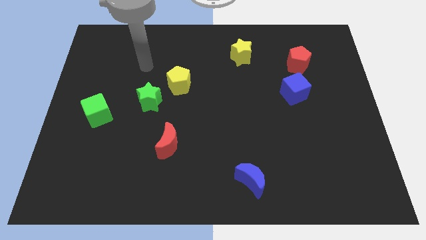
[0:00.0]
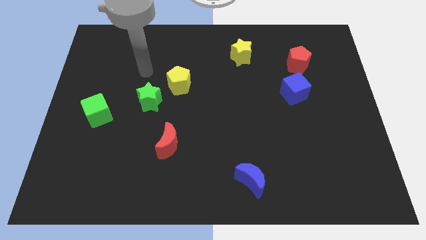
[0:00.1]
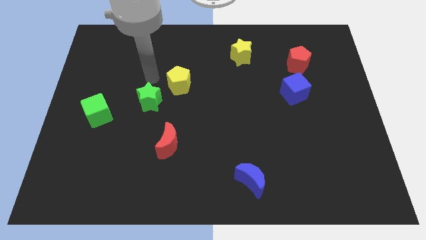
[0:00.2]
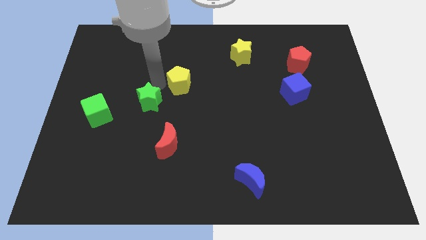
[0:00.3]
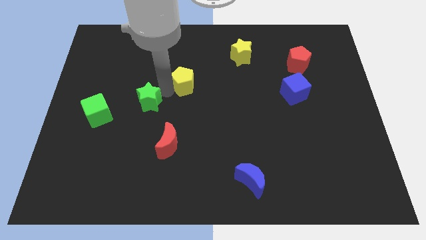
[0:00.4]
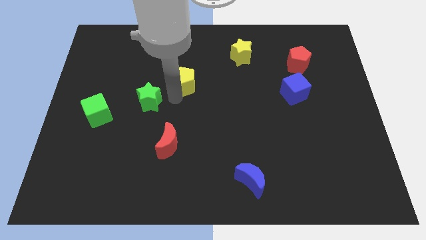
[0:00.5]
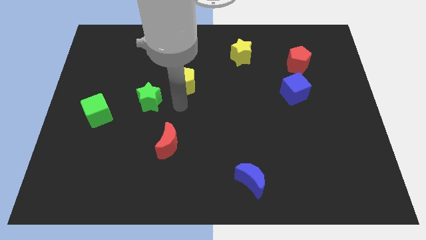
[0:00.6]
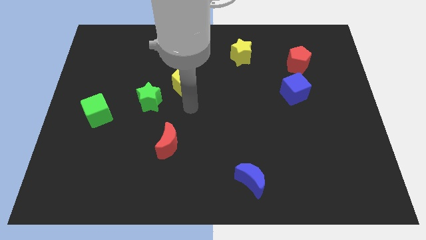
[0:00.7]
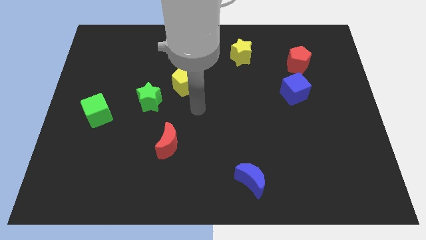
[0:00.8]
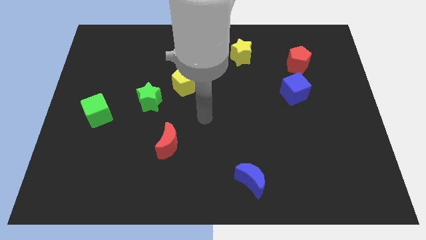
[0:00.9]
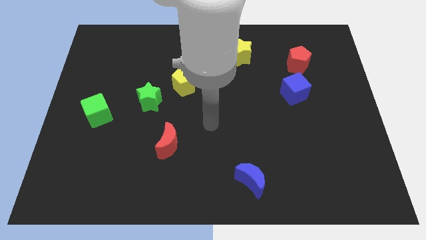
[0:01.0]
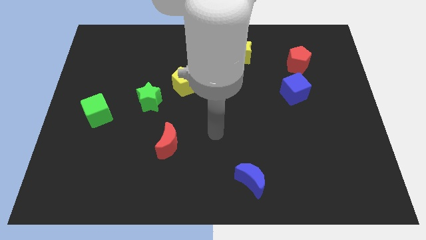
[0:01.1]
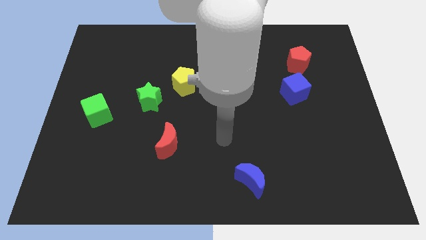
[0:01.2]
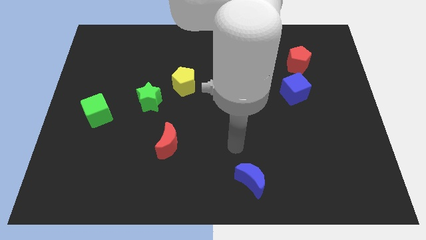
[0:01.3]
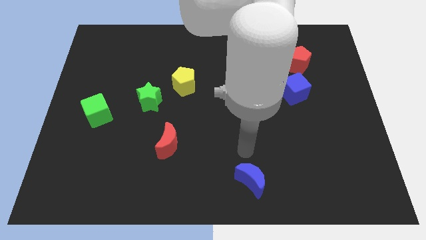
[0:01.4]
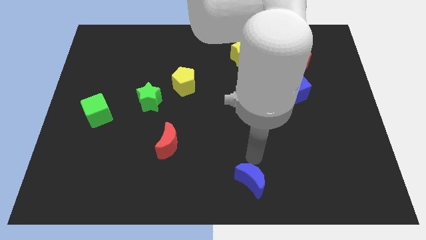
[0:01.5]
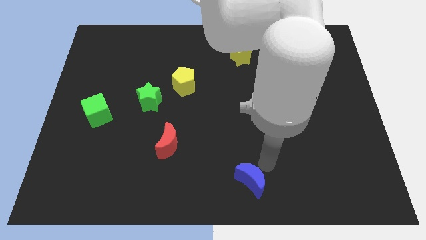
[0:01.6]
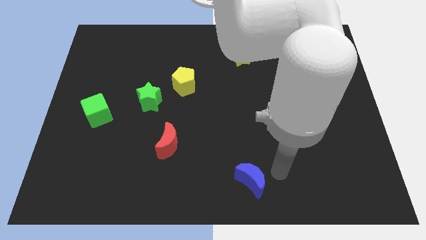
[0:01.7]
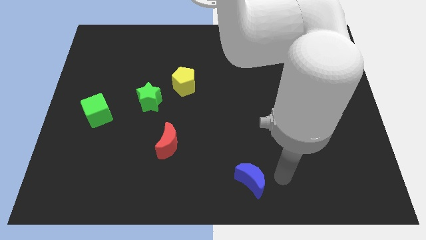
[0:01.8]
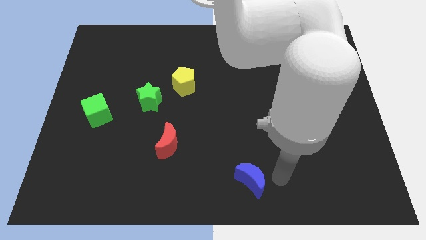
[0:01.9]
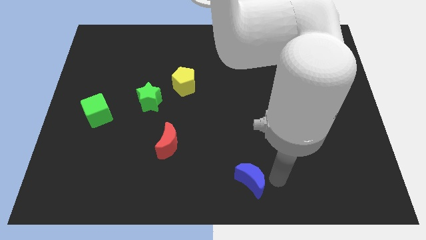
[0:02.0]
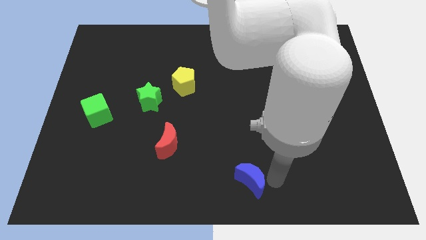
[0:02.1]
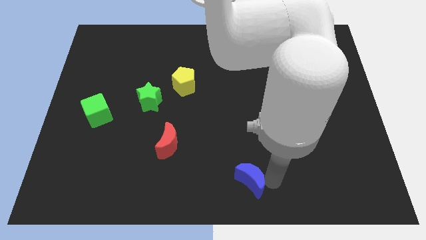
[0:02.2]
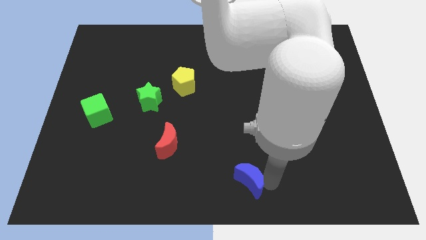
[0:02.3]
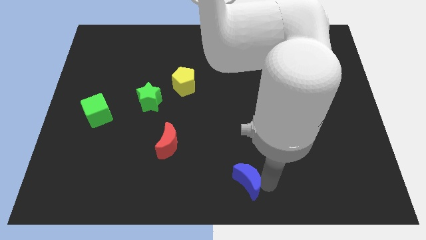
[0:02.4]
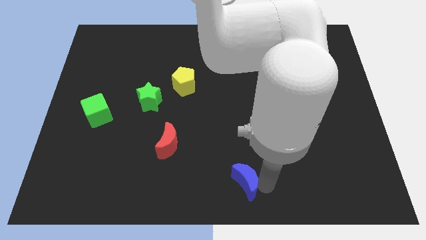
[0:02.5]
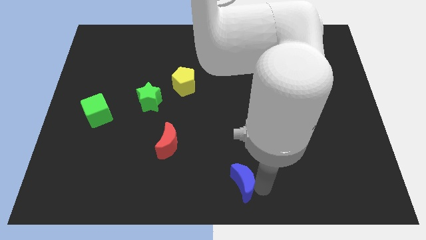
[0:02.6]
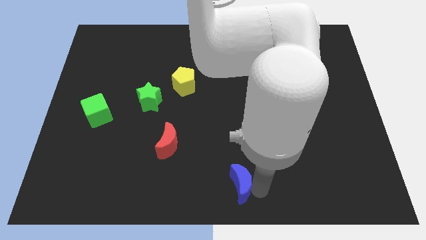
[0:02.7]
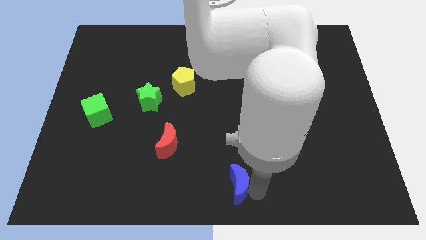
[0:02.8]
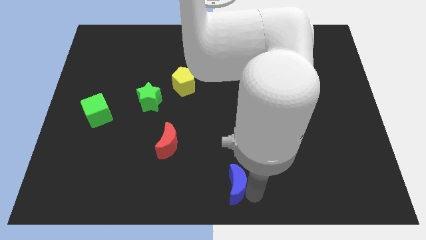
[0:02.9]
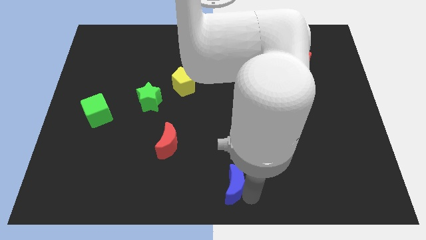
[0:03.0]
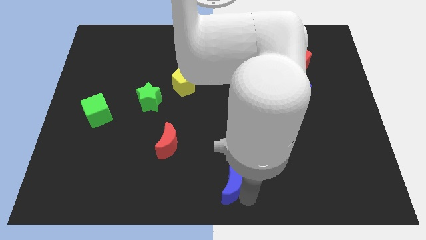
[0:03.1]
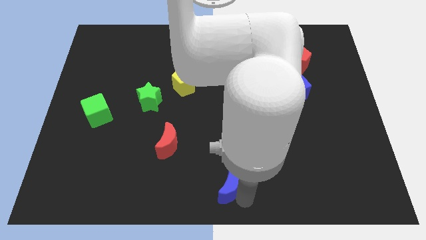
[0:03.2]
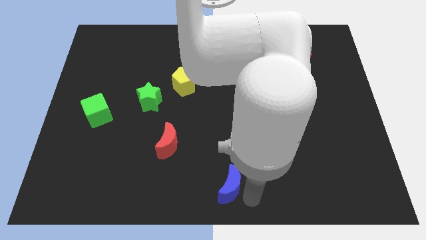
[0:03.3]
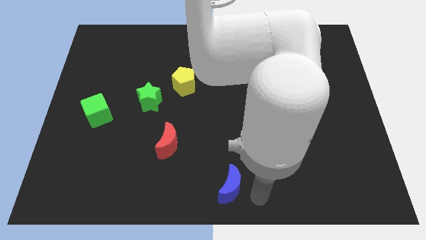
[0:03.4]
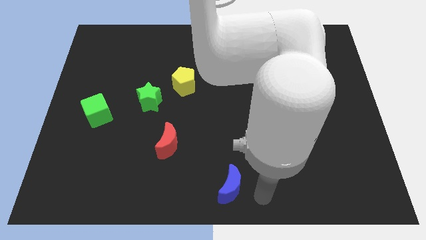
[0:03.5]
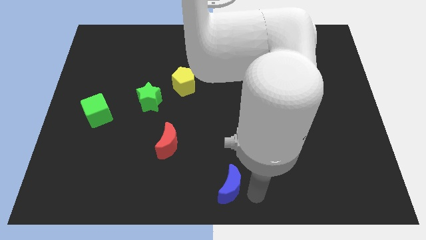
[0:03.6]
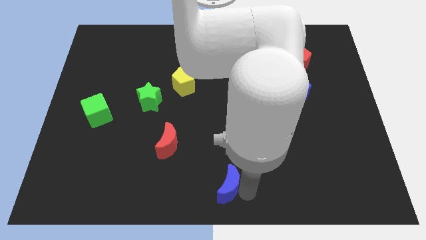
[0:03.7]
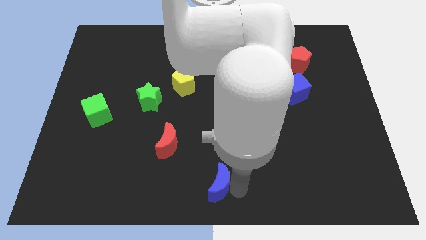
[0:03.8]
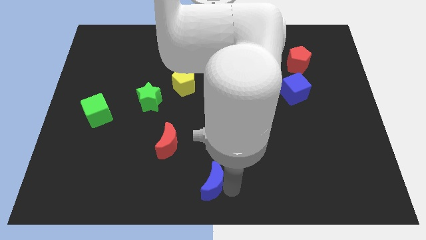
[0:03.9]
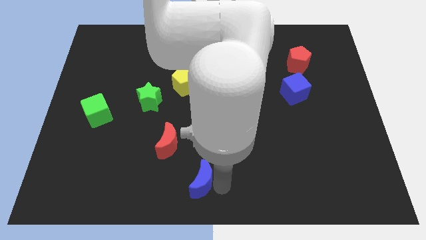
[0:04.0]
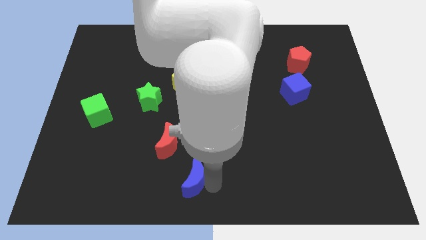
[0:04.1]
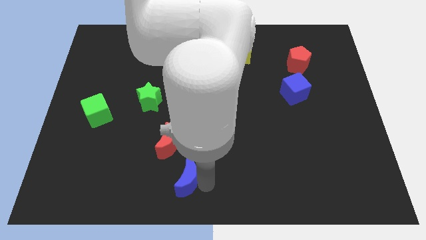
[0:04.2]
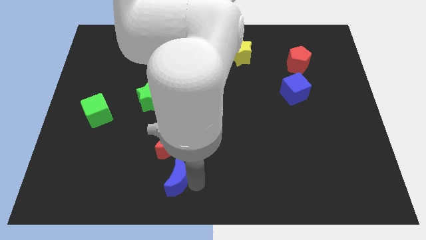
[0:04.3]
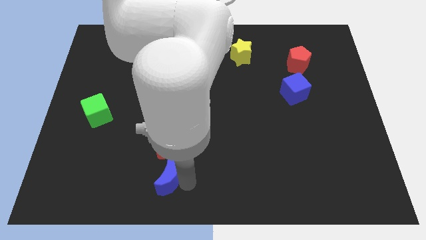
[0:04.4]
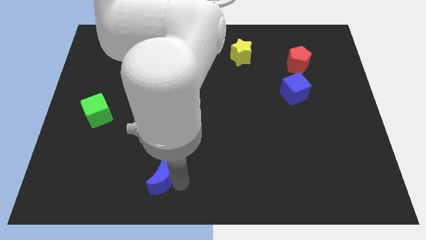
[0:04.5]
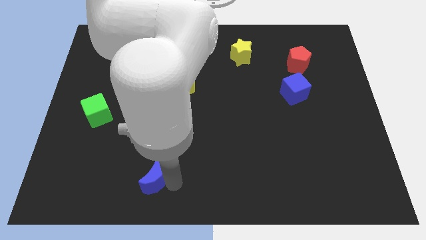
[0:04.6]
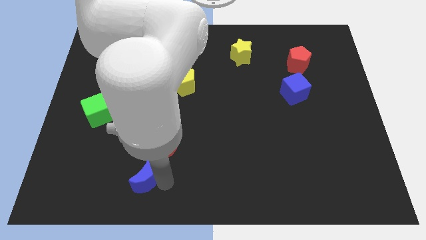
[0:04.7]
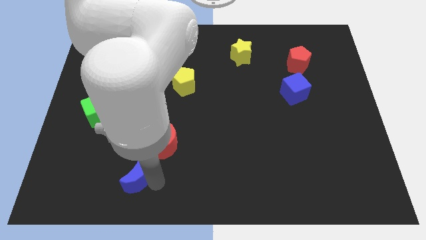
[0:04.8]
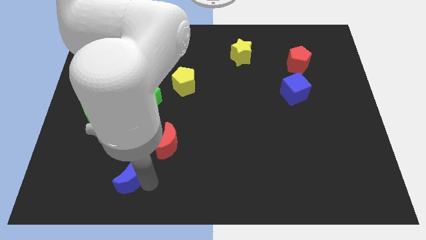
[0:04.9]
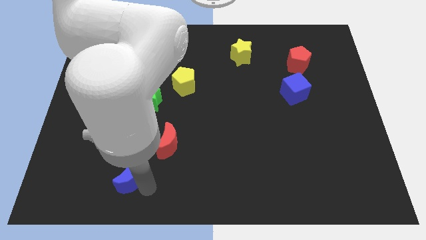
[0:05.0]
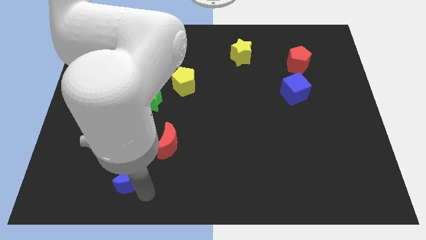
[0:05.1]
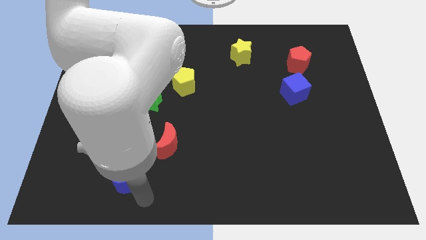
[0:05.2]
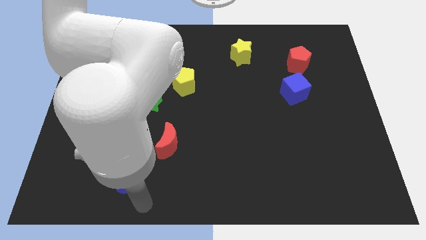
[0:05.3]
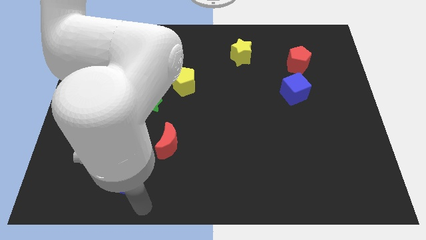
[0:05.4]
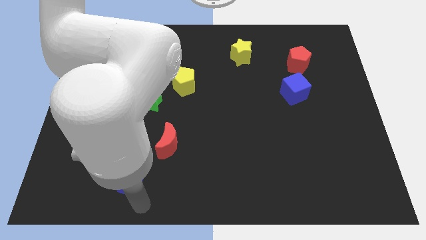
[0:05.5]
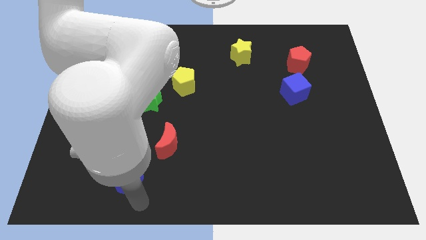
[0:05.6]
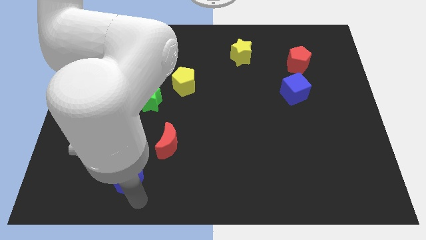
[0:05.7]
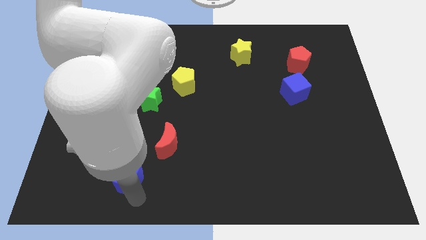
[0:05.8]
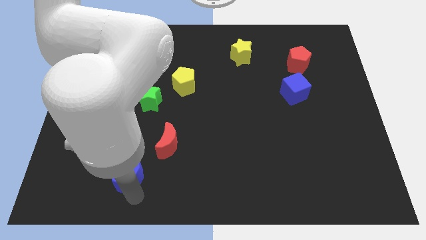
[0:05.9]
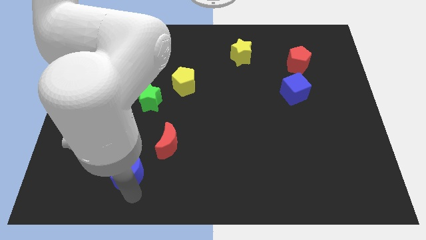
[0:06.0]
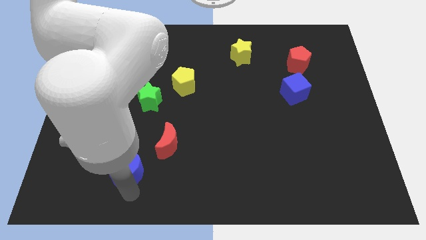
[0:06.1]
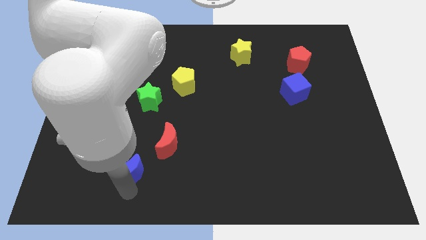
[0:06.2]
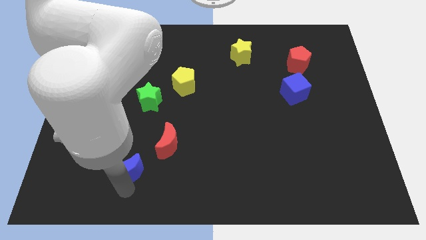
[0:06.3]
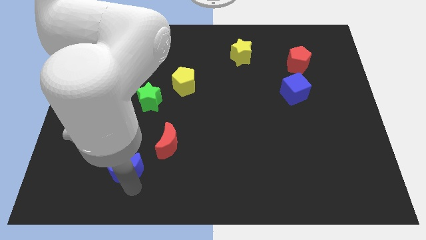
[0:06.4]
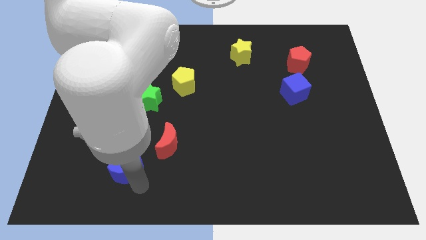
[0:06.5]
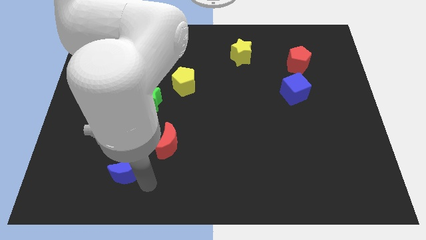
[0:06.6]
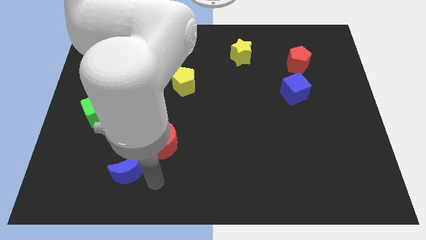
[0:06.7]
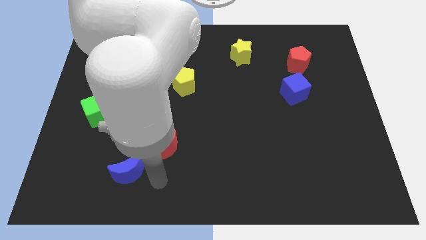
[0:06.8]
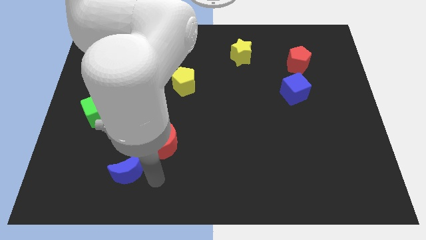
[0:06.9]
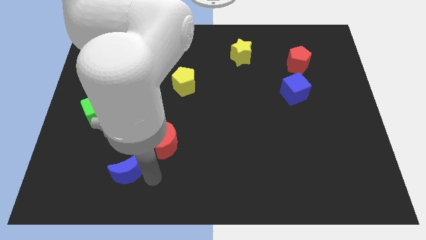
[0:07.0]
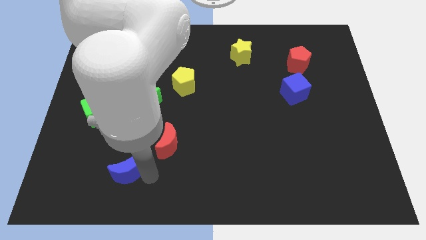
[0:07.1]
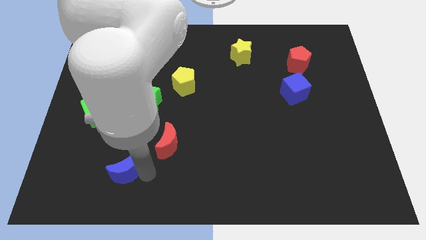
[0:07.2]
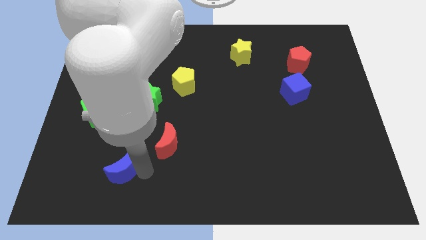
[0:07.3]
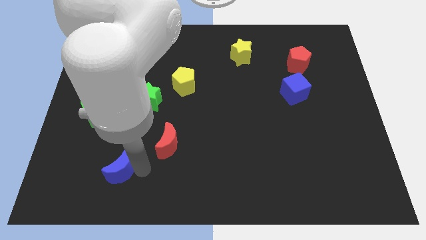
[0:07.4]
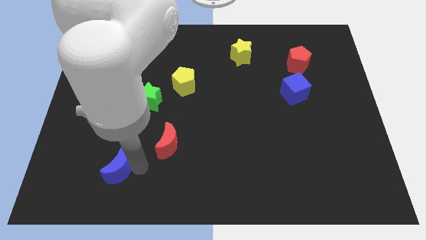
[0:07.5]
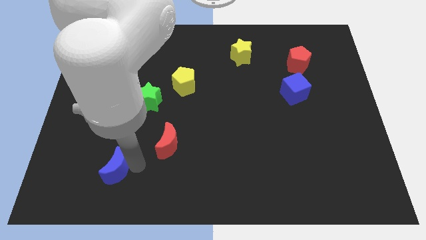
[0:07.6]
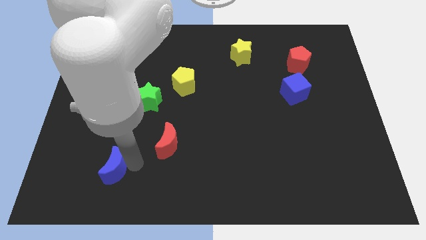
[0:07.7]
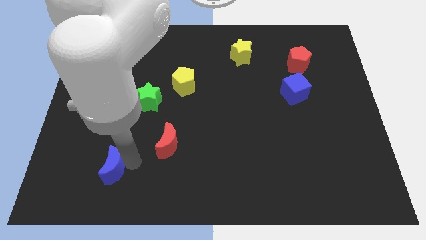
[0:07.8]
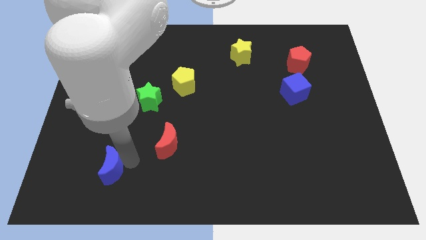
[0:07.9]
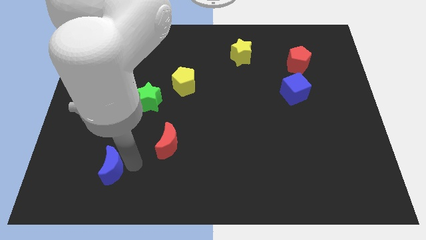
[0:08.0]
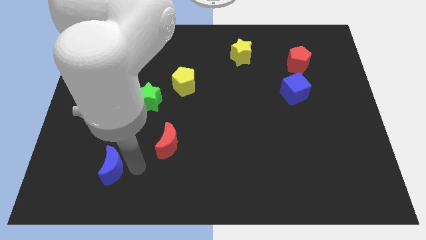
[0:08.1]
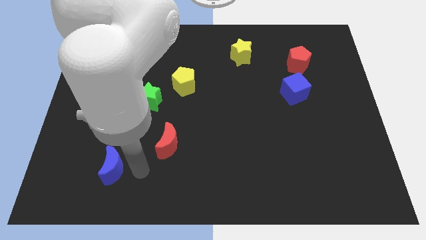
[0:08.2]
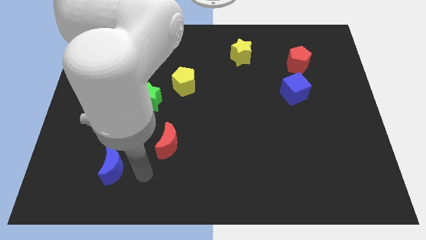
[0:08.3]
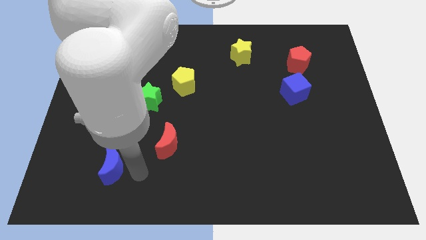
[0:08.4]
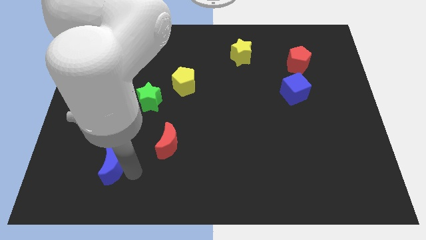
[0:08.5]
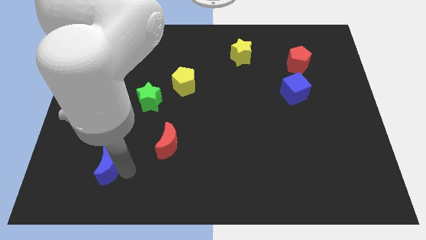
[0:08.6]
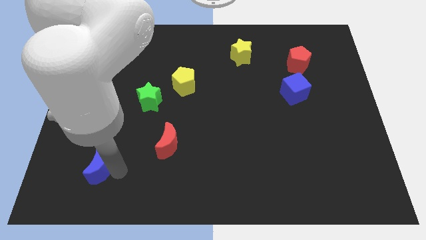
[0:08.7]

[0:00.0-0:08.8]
move the blue moon to the bottom of the green cube
